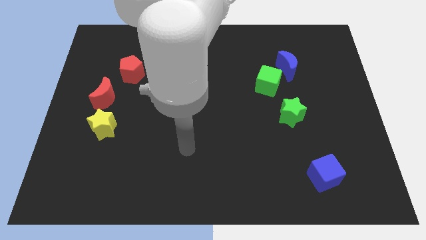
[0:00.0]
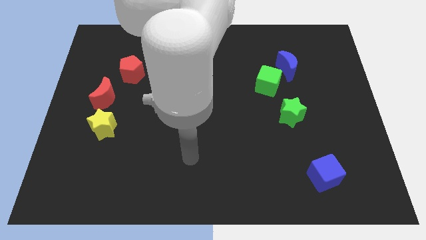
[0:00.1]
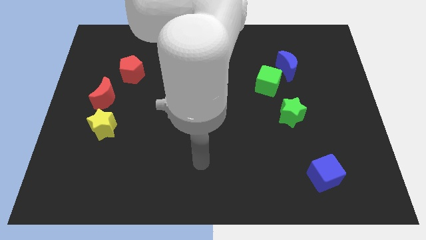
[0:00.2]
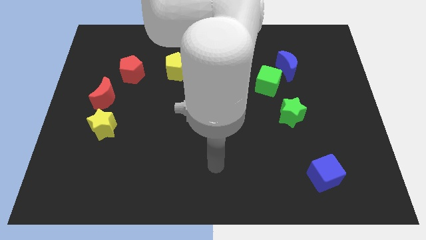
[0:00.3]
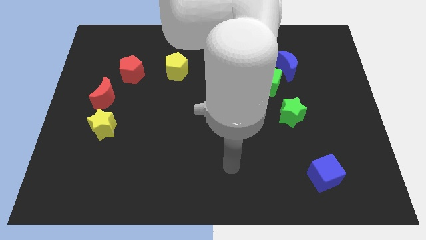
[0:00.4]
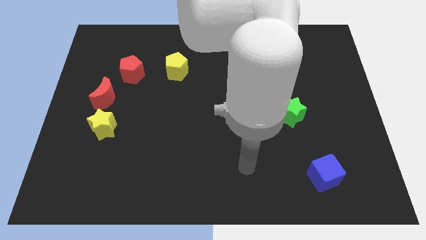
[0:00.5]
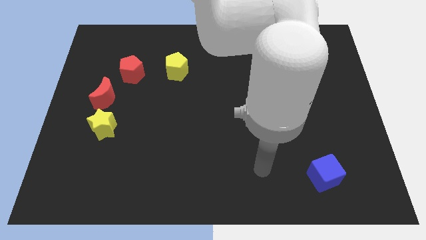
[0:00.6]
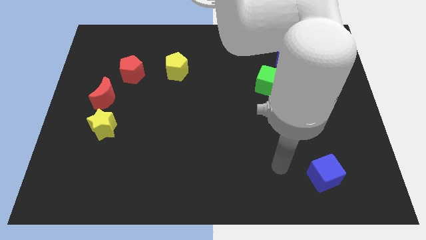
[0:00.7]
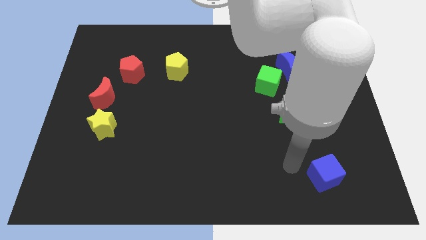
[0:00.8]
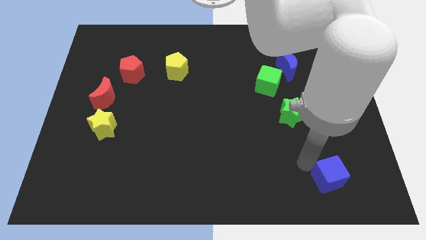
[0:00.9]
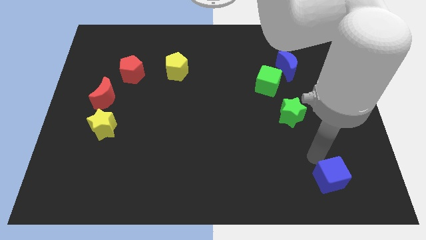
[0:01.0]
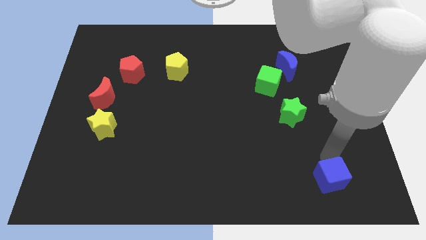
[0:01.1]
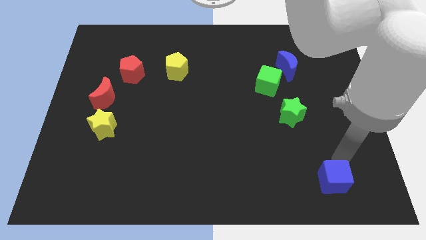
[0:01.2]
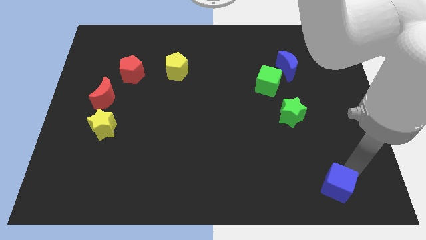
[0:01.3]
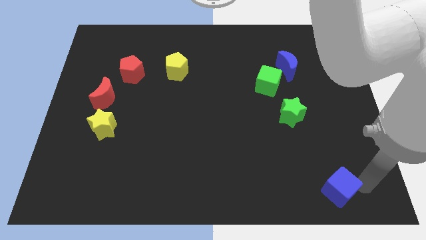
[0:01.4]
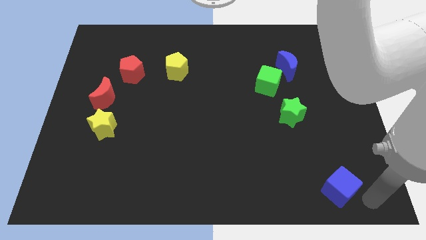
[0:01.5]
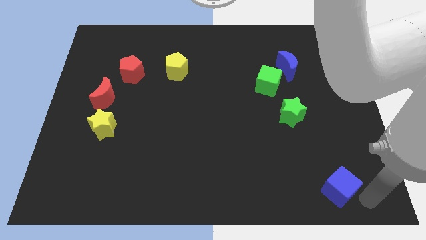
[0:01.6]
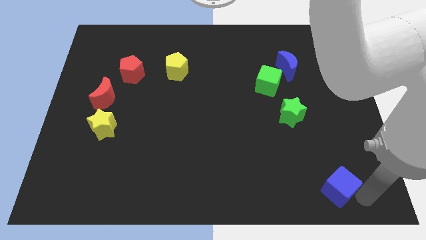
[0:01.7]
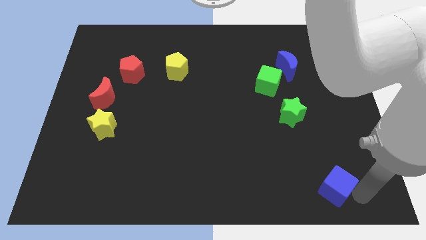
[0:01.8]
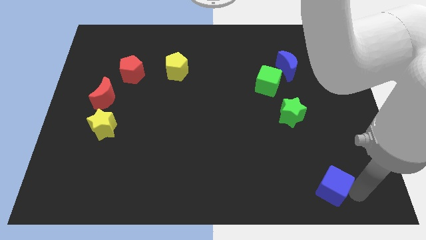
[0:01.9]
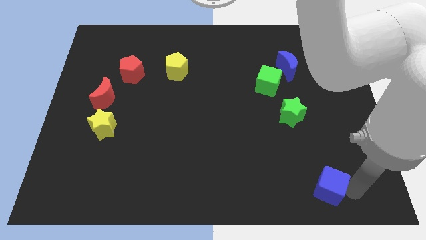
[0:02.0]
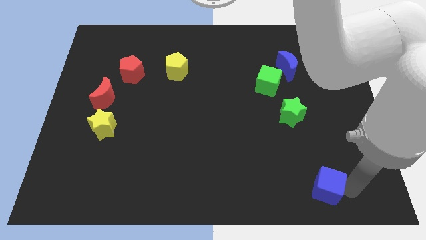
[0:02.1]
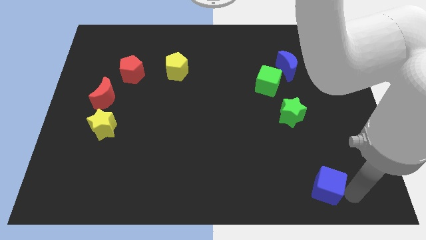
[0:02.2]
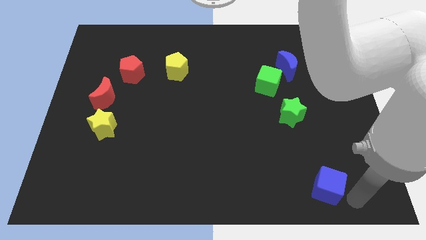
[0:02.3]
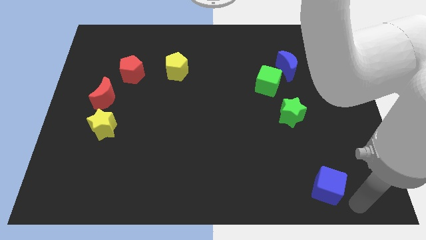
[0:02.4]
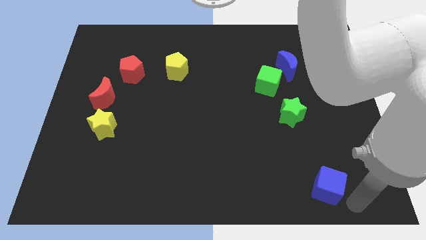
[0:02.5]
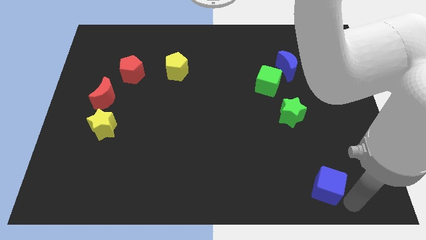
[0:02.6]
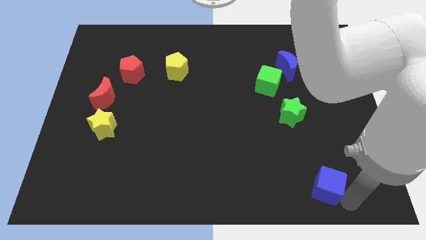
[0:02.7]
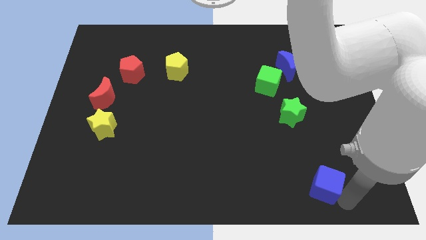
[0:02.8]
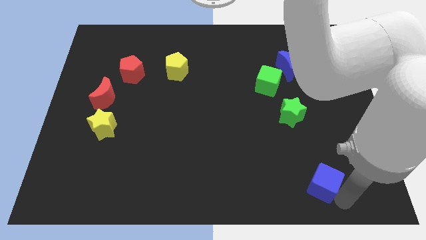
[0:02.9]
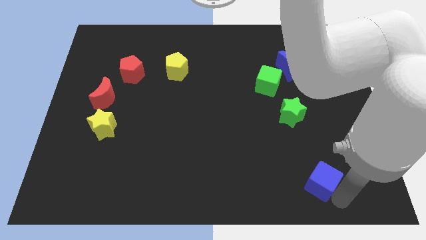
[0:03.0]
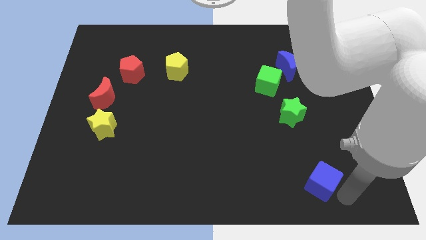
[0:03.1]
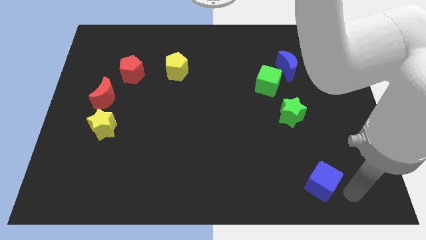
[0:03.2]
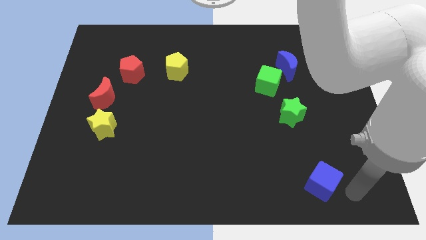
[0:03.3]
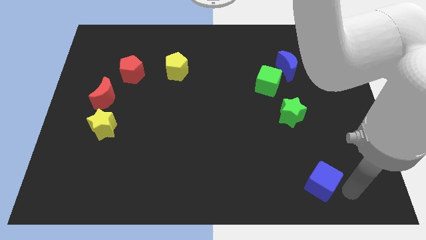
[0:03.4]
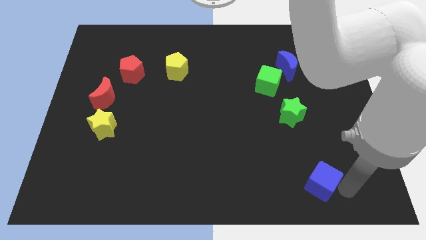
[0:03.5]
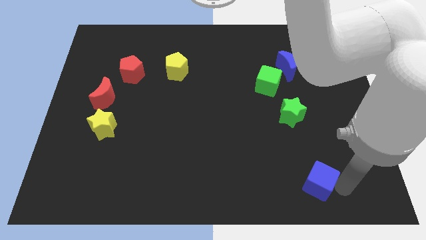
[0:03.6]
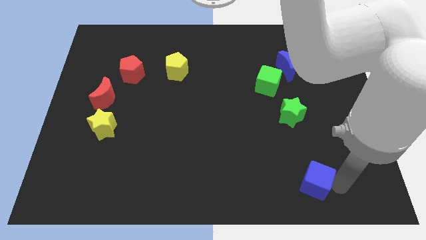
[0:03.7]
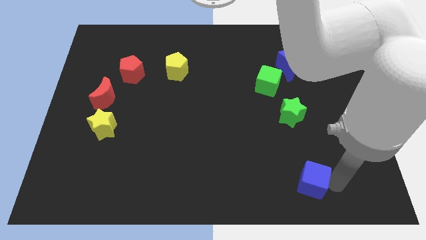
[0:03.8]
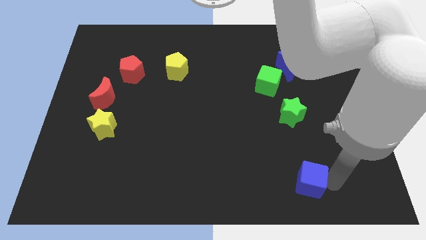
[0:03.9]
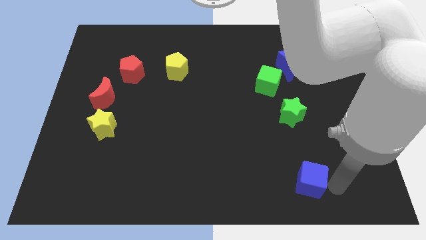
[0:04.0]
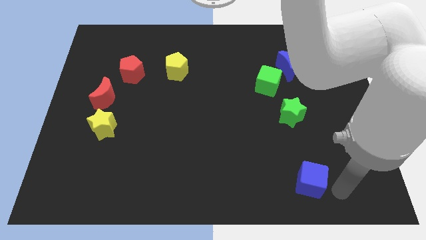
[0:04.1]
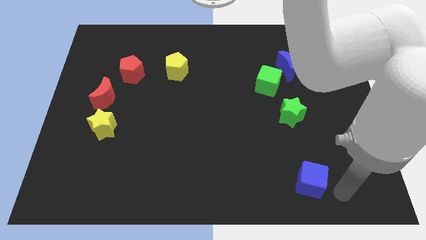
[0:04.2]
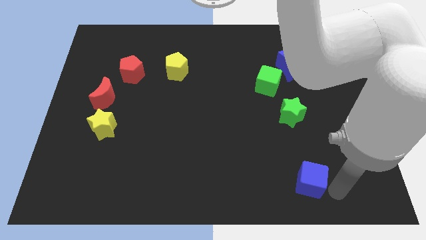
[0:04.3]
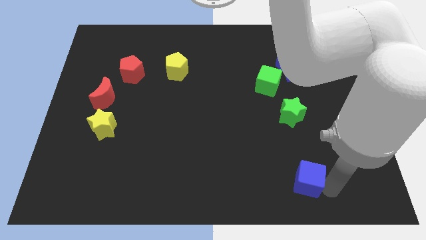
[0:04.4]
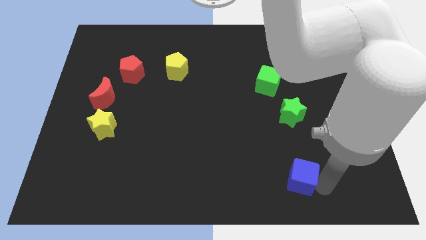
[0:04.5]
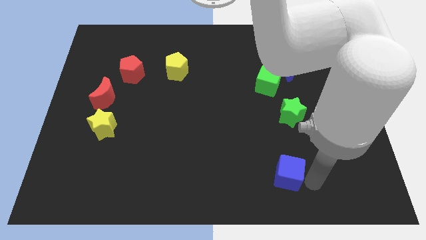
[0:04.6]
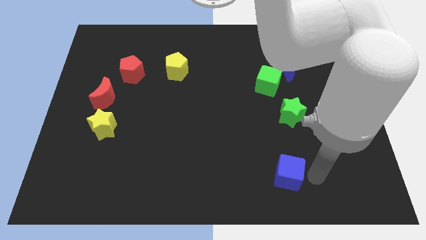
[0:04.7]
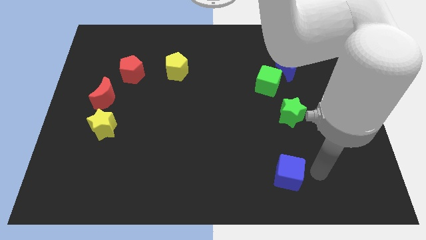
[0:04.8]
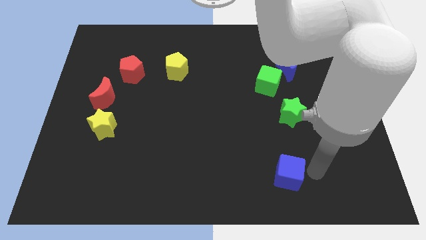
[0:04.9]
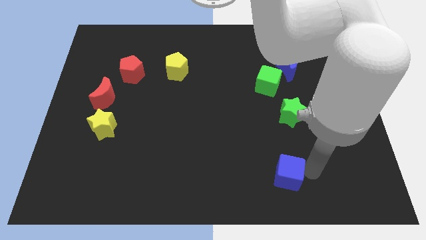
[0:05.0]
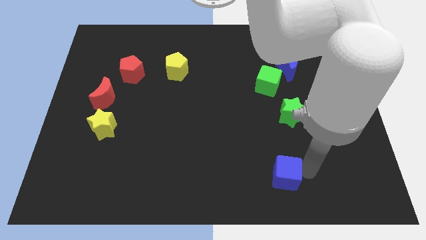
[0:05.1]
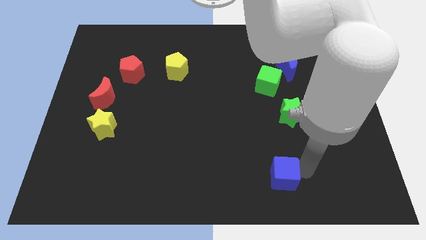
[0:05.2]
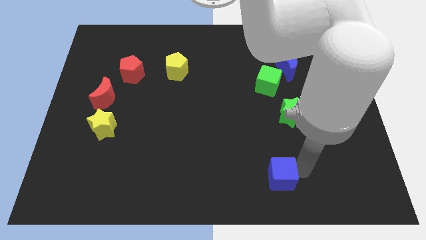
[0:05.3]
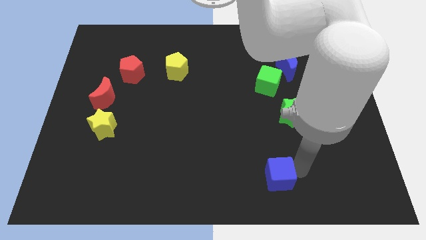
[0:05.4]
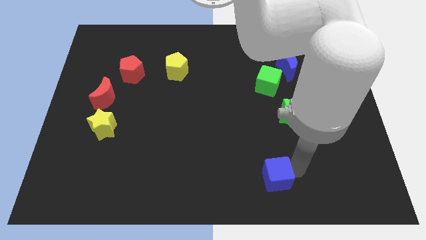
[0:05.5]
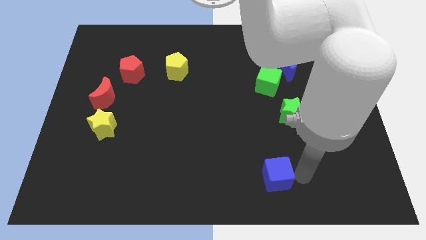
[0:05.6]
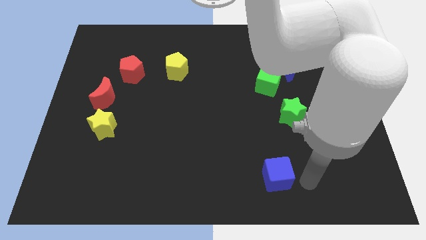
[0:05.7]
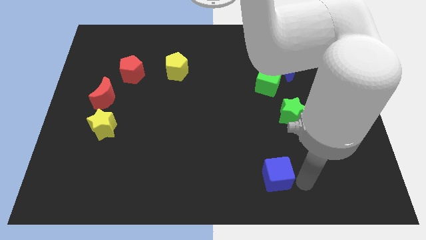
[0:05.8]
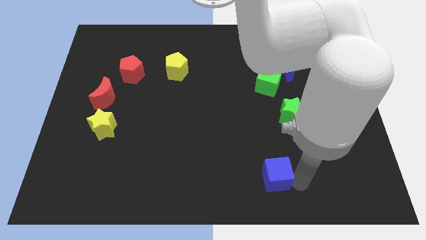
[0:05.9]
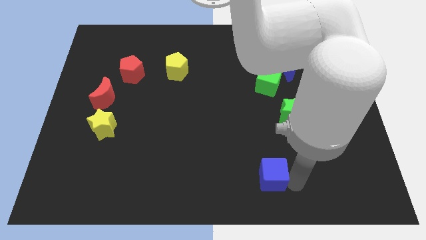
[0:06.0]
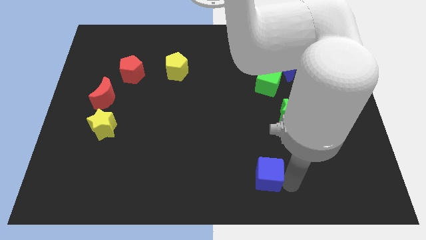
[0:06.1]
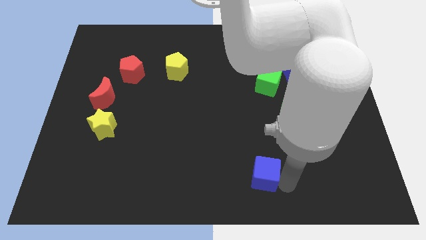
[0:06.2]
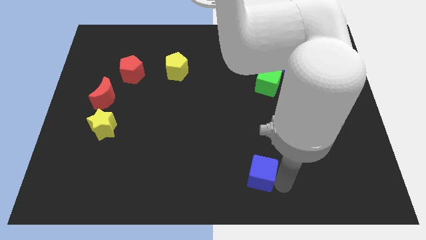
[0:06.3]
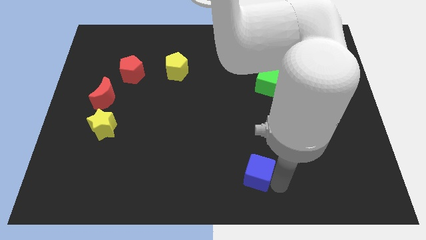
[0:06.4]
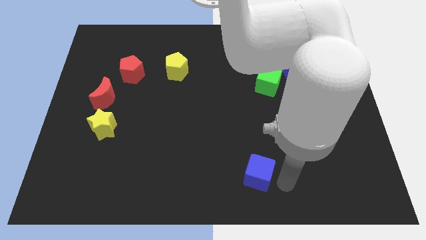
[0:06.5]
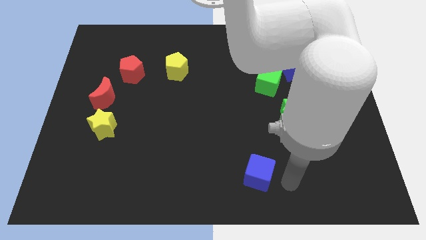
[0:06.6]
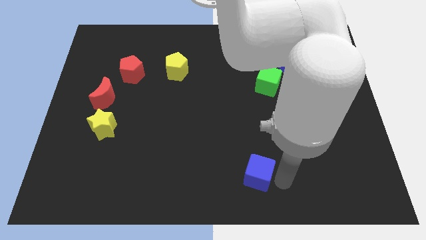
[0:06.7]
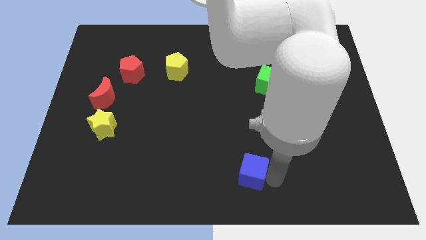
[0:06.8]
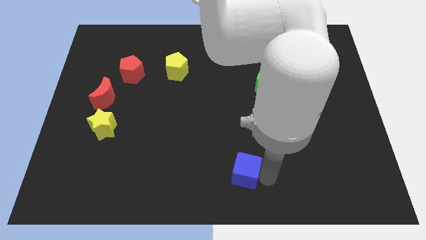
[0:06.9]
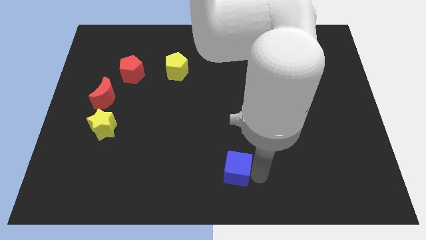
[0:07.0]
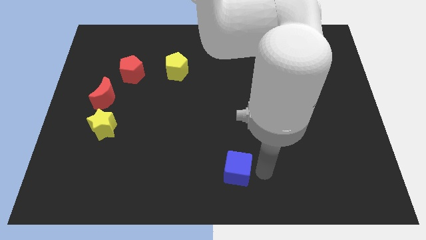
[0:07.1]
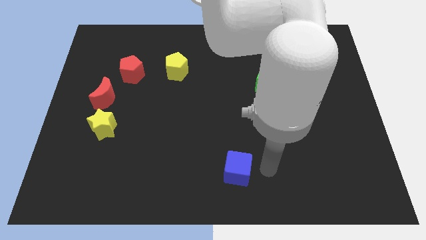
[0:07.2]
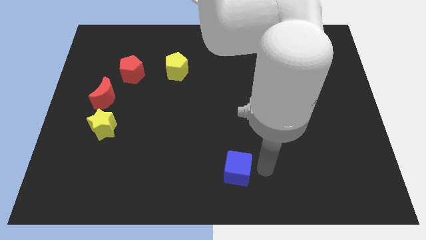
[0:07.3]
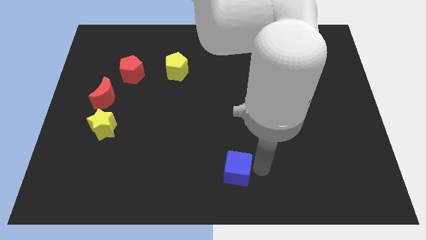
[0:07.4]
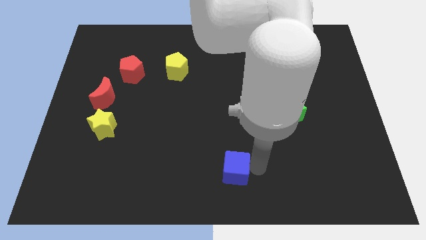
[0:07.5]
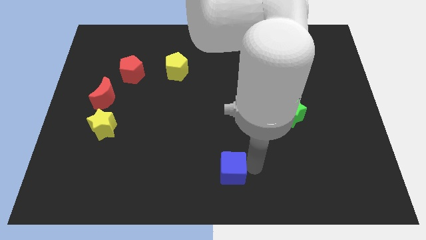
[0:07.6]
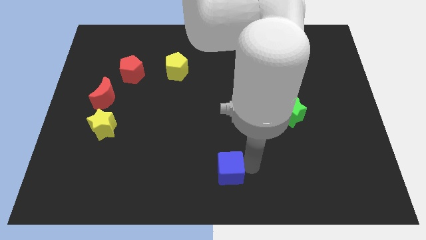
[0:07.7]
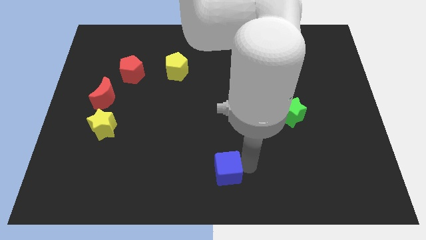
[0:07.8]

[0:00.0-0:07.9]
move the blue cube to the left

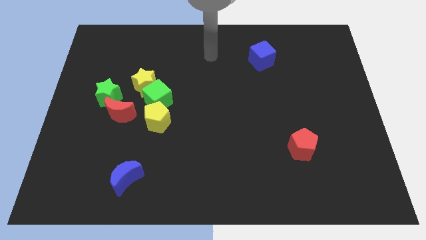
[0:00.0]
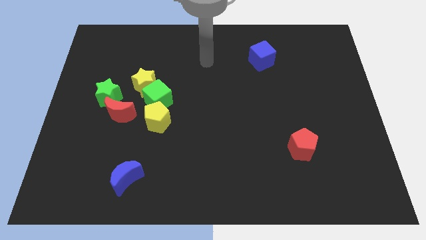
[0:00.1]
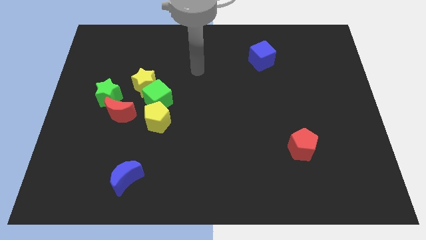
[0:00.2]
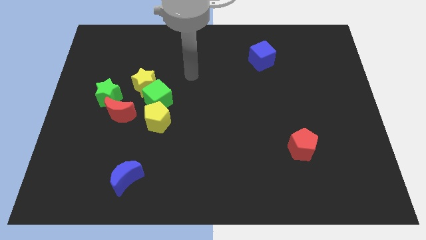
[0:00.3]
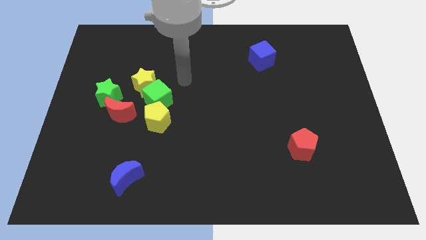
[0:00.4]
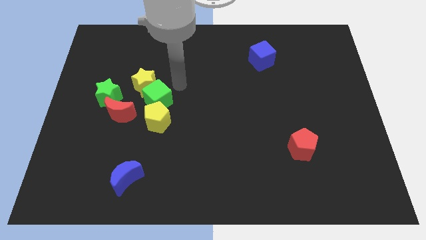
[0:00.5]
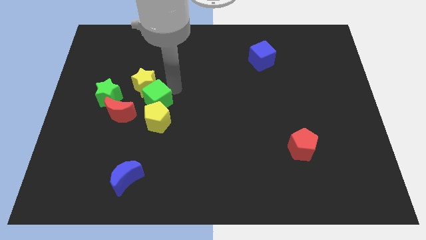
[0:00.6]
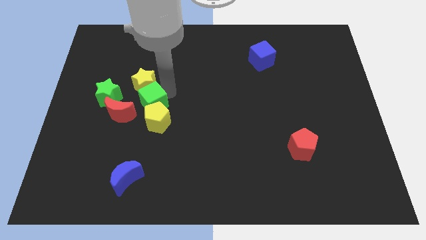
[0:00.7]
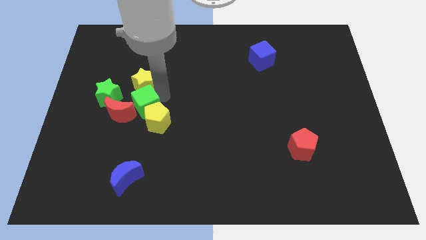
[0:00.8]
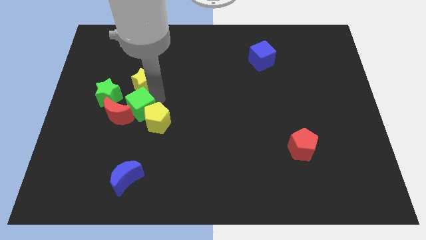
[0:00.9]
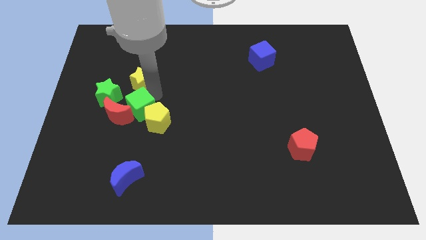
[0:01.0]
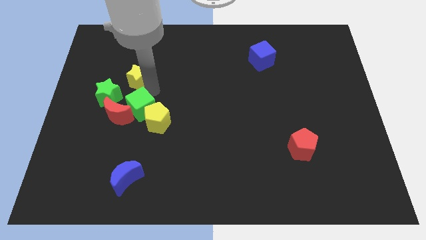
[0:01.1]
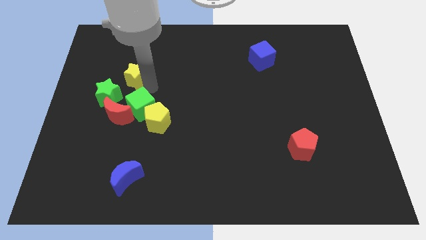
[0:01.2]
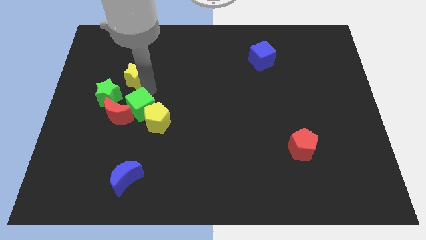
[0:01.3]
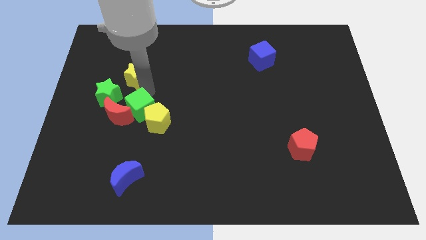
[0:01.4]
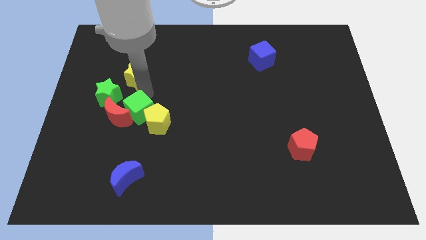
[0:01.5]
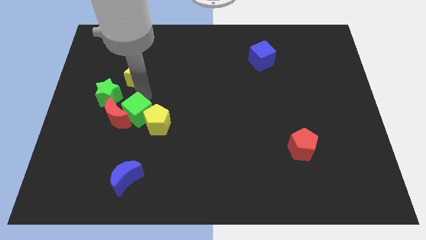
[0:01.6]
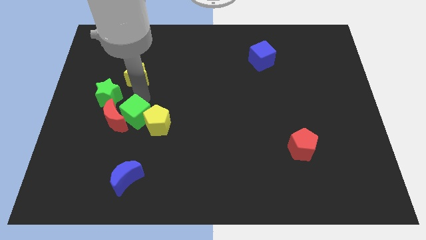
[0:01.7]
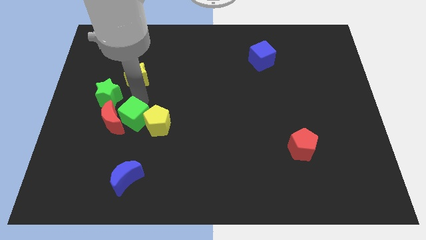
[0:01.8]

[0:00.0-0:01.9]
slightly move the green cube diagonally downwards and to the left
